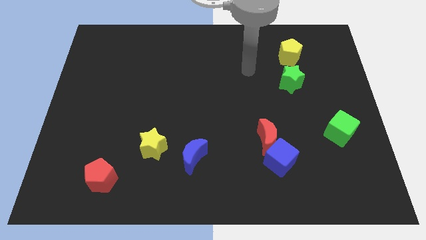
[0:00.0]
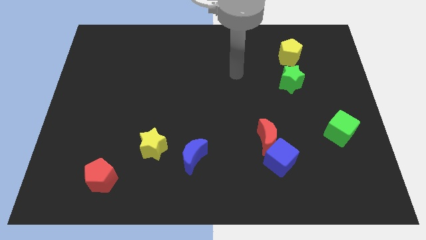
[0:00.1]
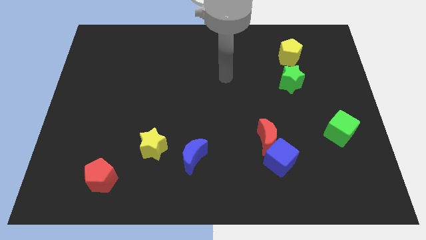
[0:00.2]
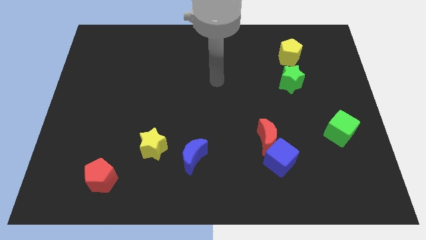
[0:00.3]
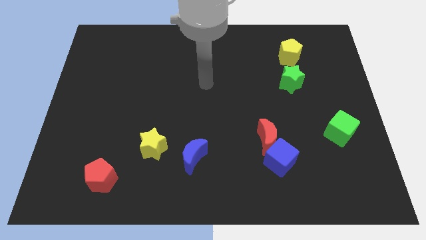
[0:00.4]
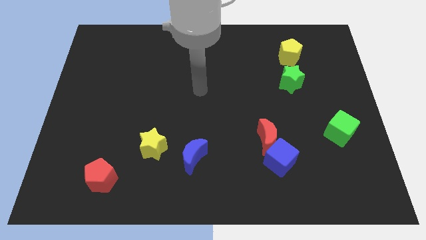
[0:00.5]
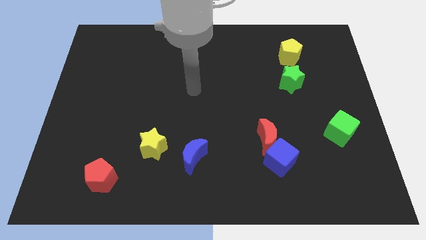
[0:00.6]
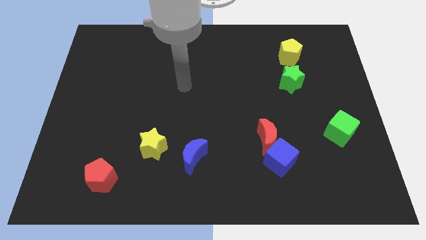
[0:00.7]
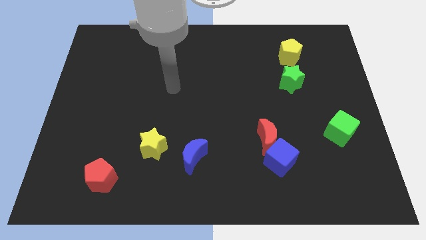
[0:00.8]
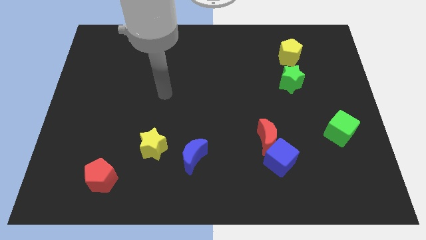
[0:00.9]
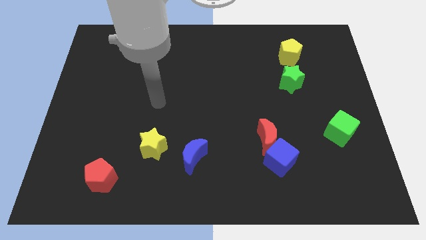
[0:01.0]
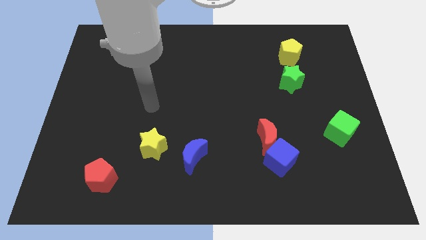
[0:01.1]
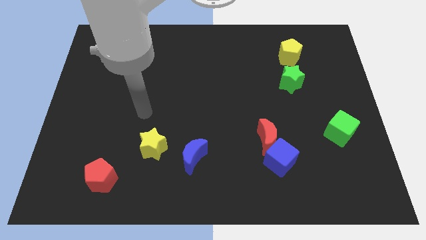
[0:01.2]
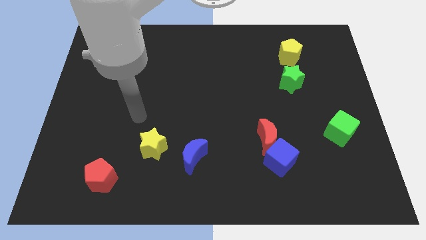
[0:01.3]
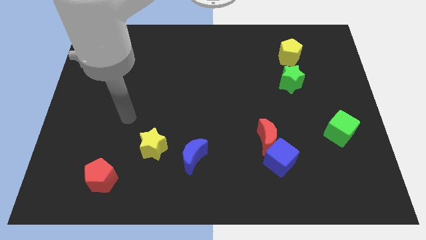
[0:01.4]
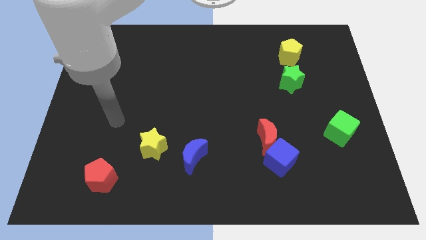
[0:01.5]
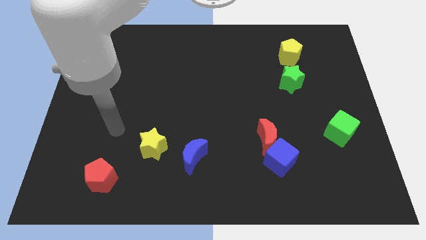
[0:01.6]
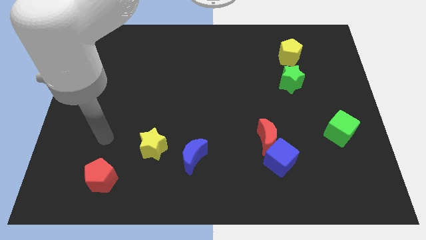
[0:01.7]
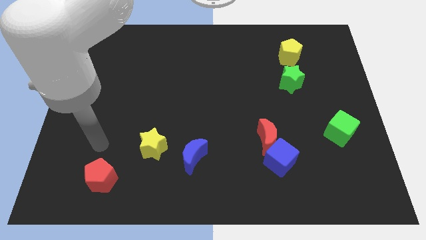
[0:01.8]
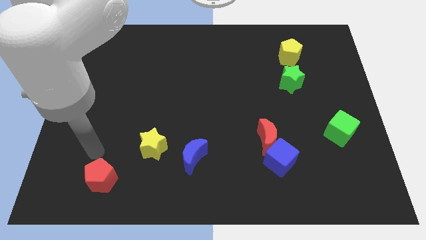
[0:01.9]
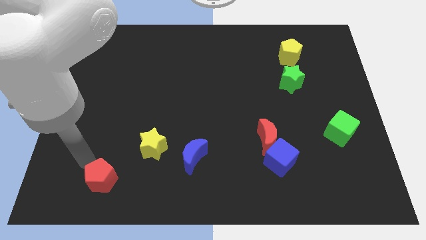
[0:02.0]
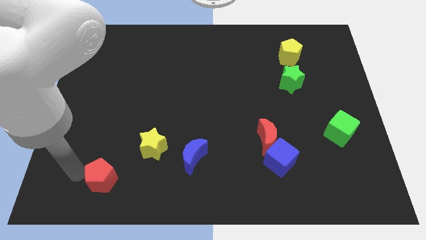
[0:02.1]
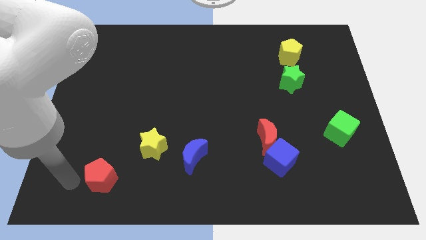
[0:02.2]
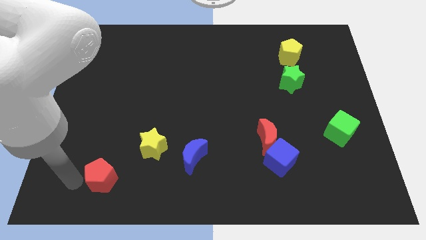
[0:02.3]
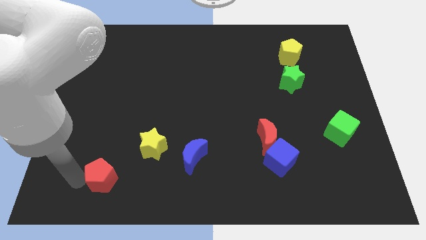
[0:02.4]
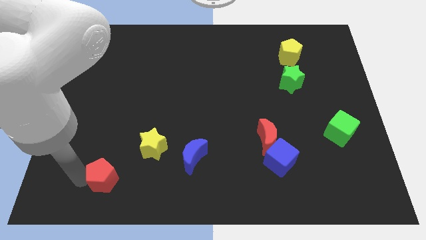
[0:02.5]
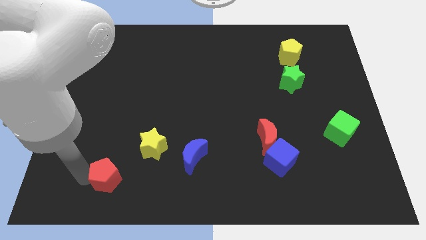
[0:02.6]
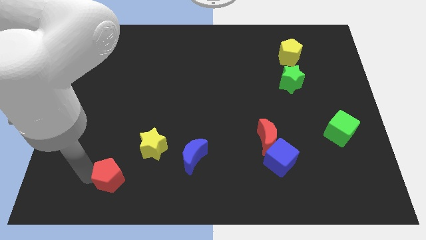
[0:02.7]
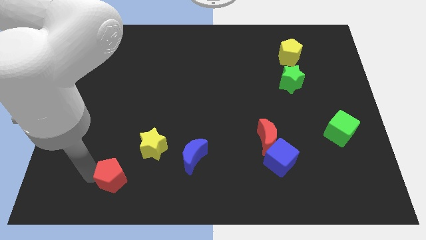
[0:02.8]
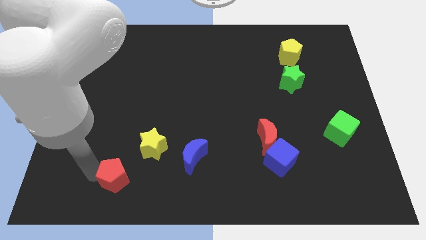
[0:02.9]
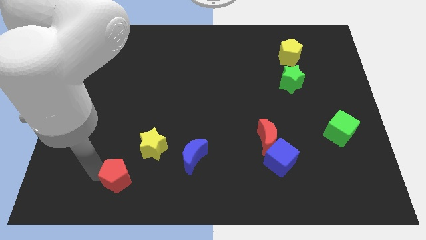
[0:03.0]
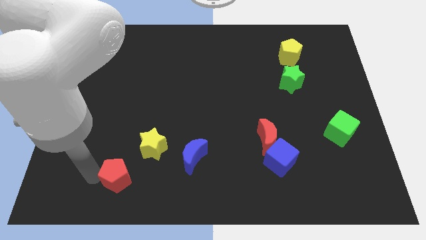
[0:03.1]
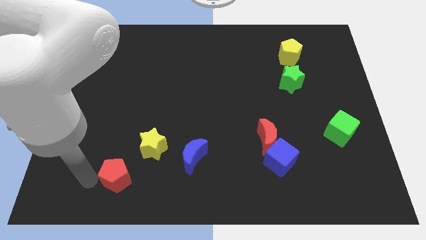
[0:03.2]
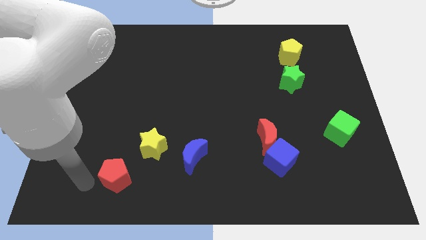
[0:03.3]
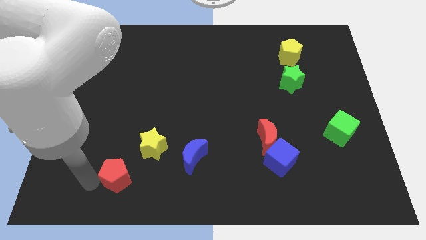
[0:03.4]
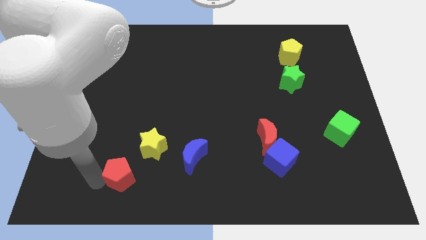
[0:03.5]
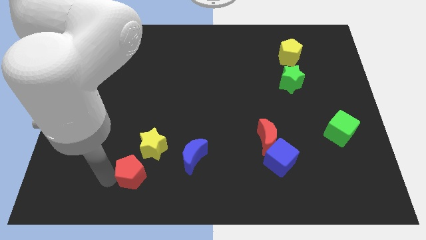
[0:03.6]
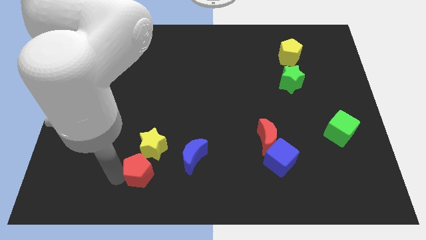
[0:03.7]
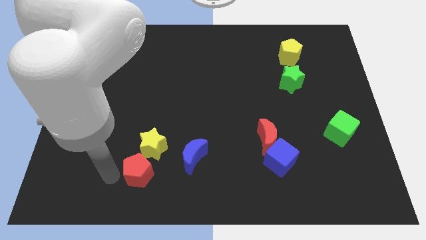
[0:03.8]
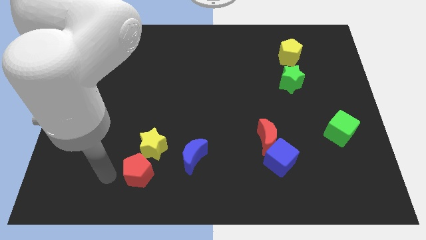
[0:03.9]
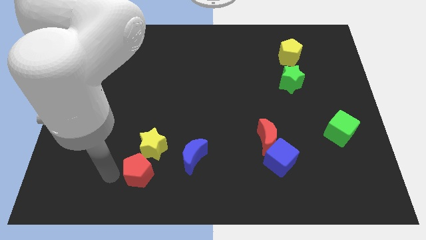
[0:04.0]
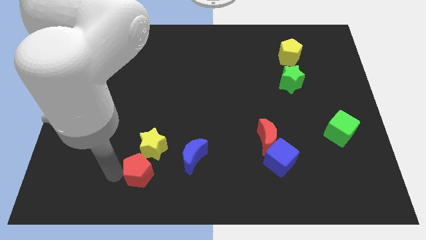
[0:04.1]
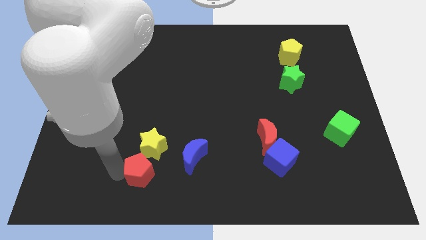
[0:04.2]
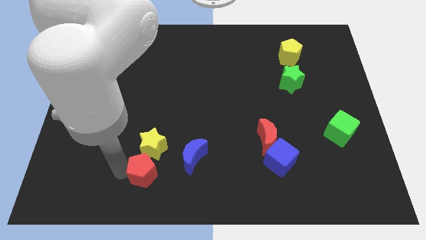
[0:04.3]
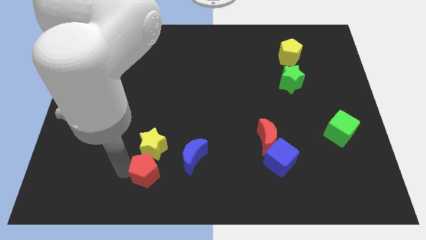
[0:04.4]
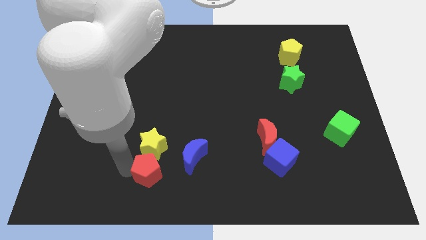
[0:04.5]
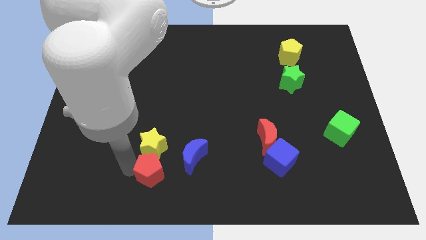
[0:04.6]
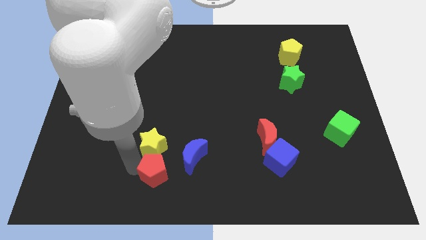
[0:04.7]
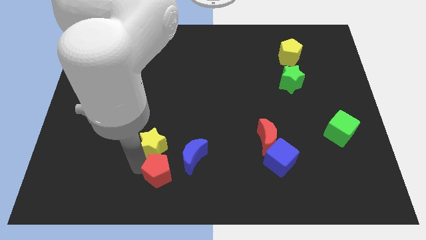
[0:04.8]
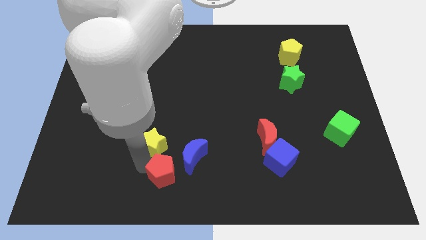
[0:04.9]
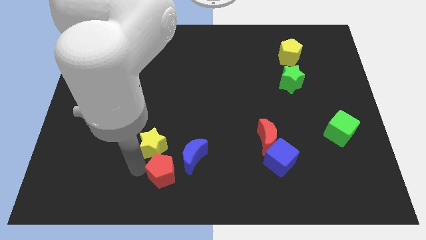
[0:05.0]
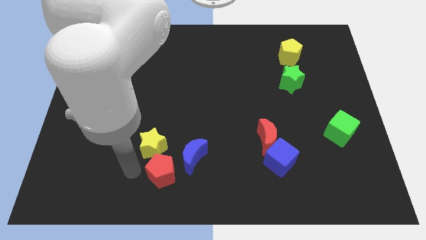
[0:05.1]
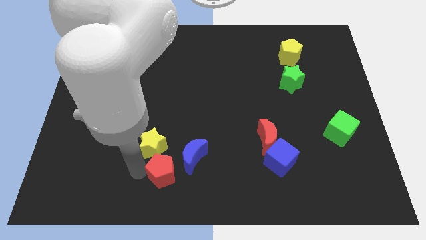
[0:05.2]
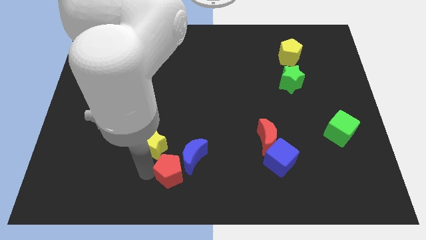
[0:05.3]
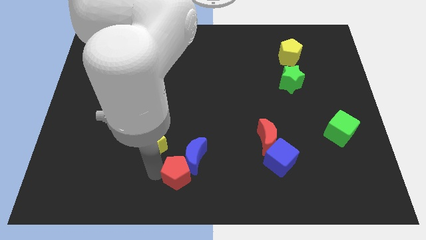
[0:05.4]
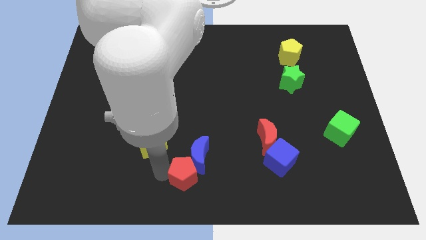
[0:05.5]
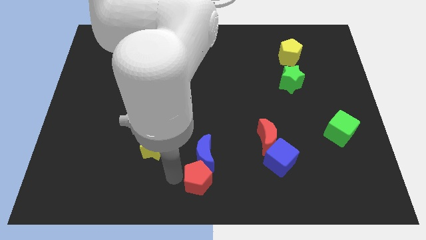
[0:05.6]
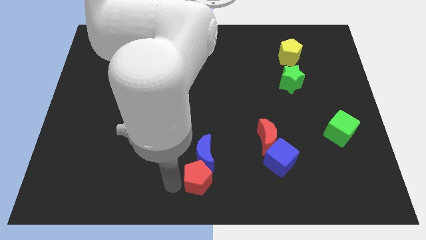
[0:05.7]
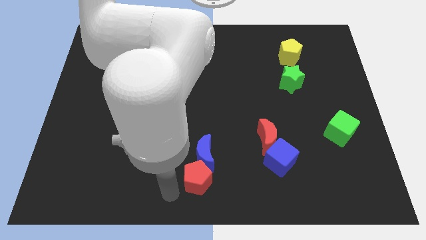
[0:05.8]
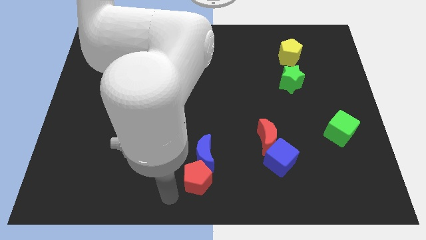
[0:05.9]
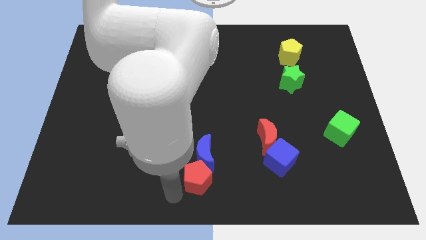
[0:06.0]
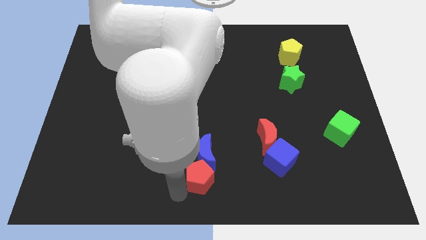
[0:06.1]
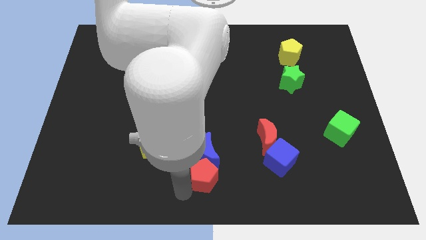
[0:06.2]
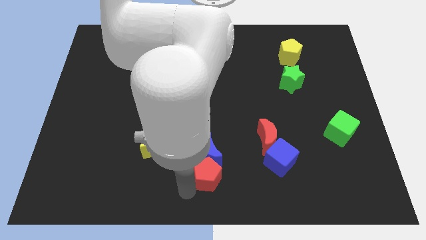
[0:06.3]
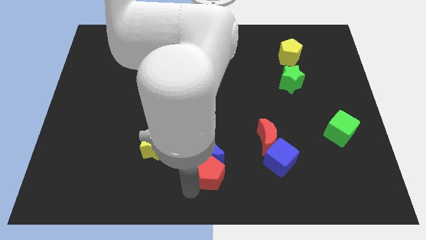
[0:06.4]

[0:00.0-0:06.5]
push the red pentagon to the left side of the blue cube

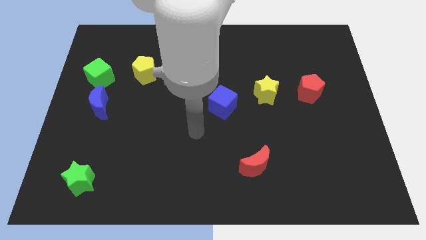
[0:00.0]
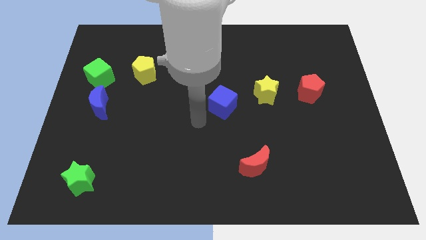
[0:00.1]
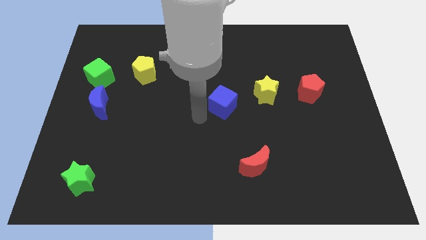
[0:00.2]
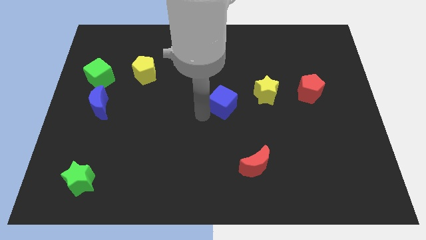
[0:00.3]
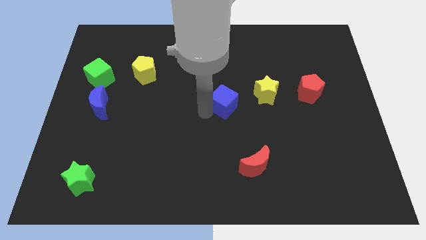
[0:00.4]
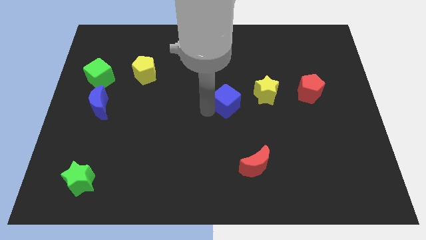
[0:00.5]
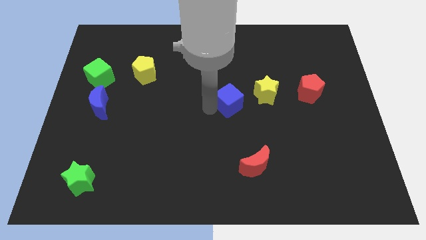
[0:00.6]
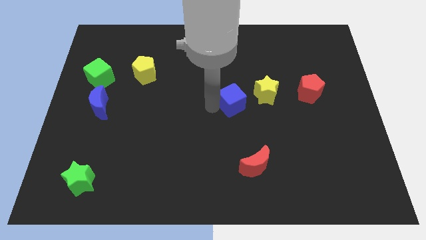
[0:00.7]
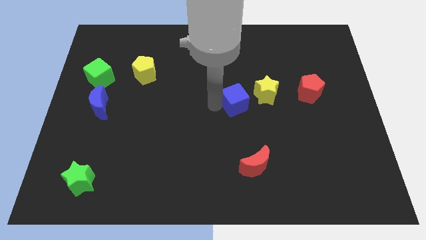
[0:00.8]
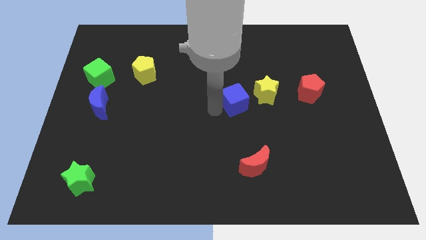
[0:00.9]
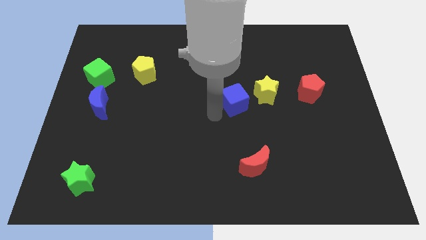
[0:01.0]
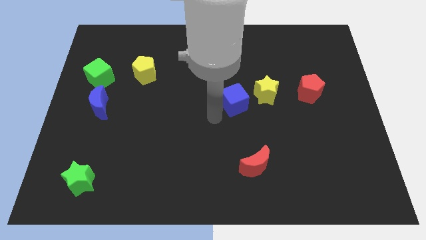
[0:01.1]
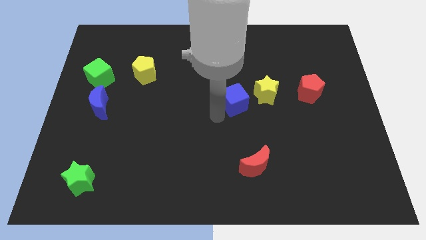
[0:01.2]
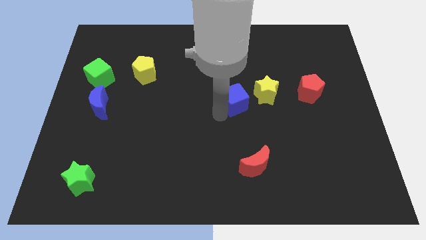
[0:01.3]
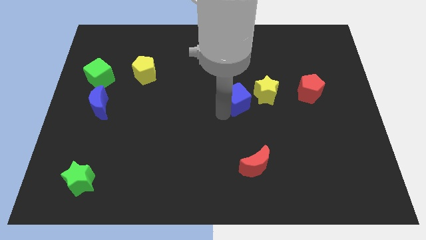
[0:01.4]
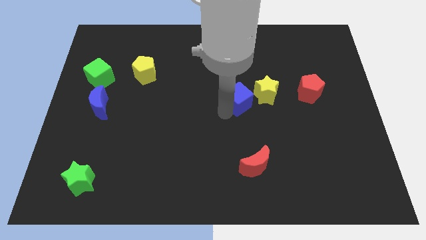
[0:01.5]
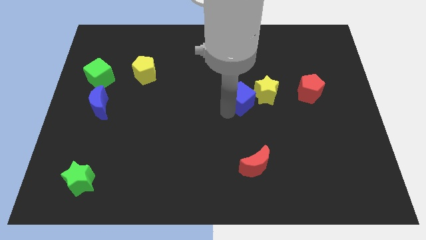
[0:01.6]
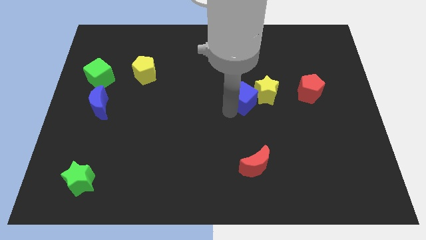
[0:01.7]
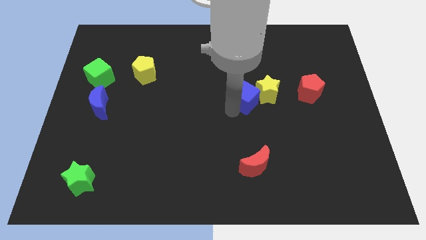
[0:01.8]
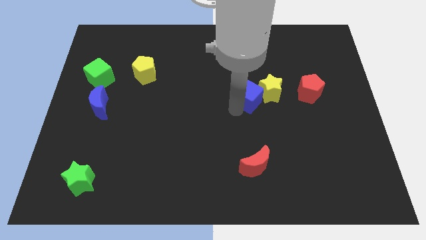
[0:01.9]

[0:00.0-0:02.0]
put the blue cube just left of the red pentagon
